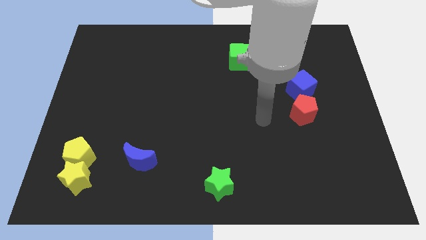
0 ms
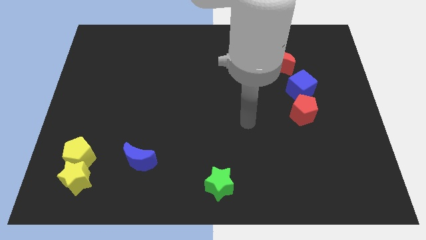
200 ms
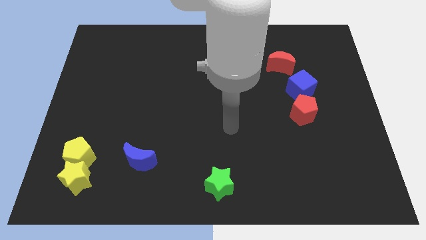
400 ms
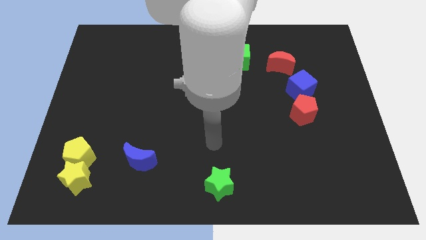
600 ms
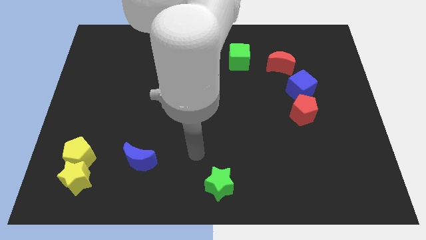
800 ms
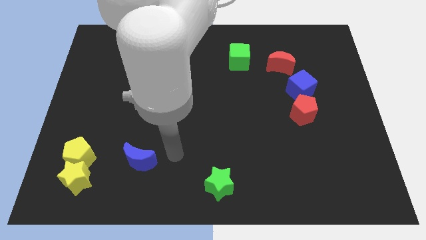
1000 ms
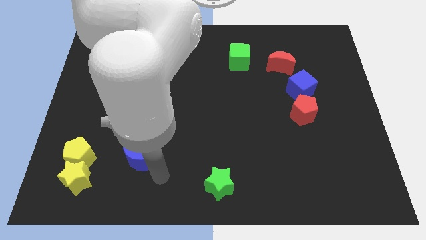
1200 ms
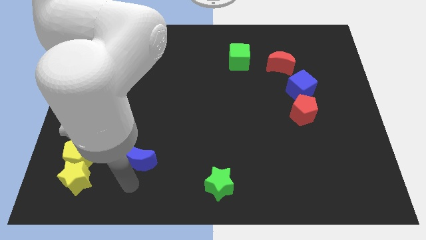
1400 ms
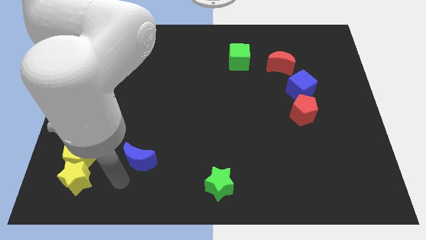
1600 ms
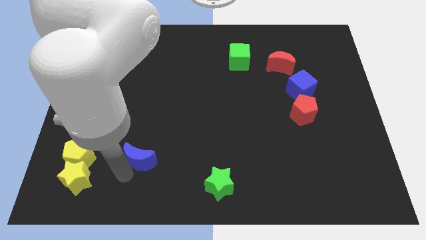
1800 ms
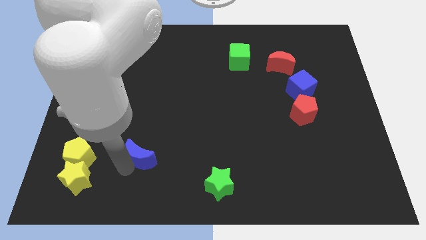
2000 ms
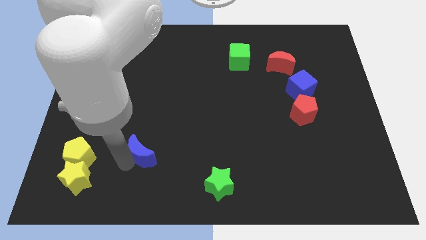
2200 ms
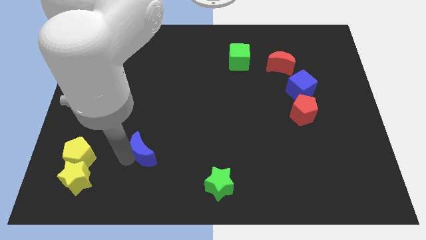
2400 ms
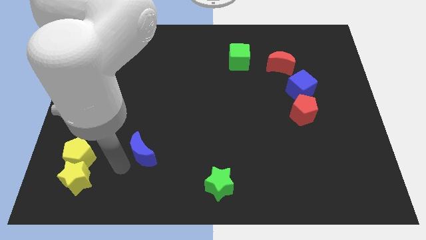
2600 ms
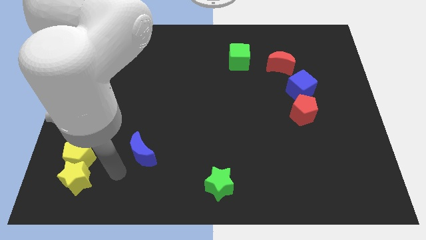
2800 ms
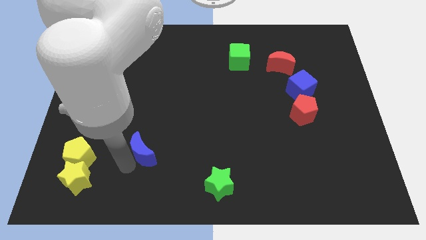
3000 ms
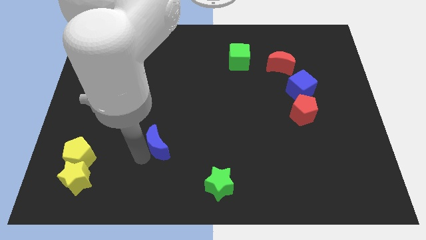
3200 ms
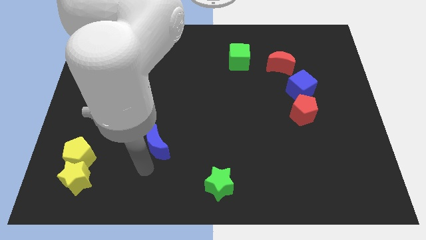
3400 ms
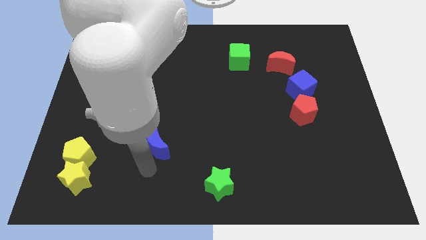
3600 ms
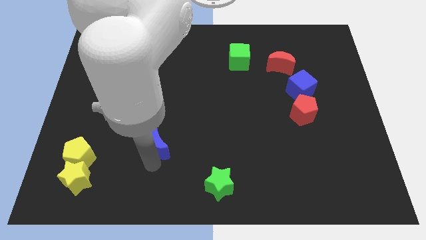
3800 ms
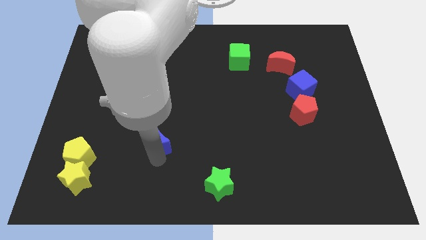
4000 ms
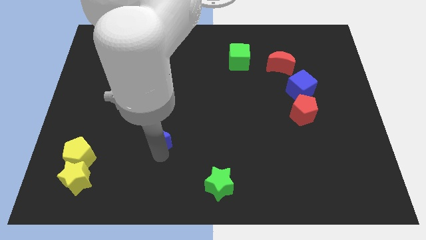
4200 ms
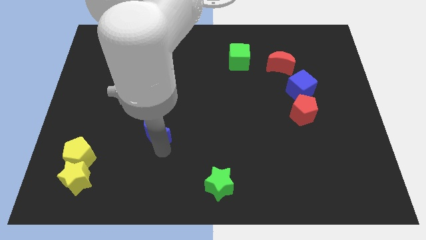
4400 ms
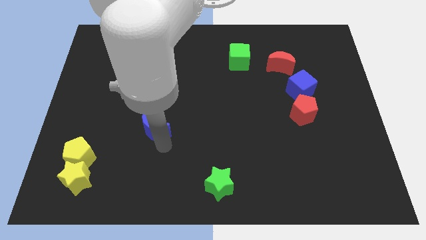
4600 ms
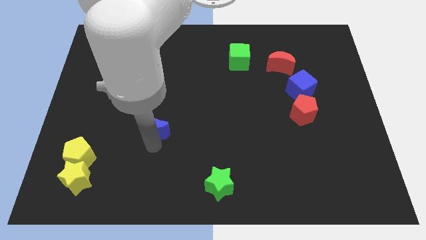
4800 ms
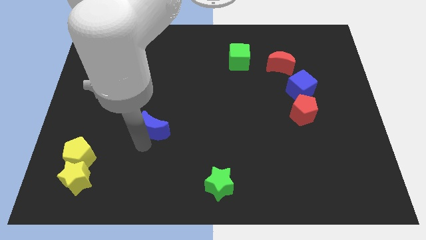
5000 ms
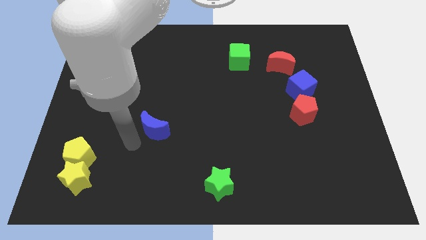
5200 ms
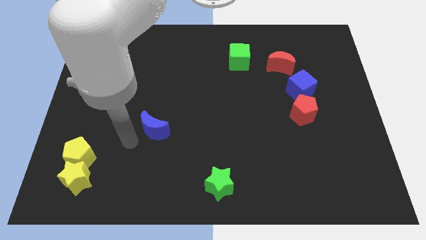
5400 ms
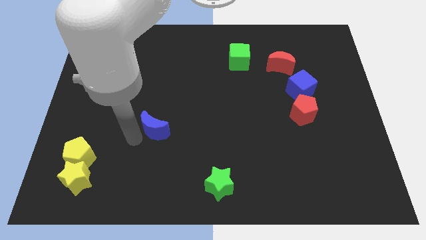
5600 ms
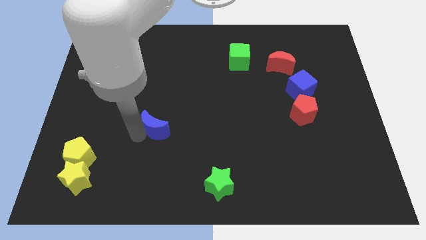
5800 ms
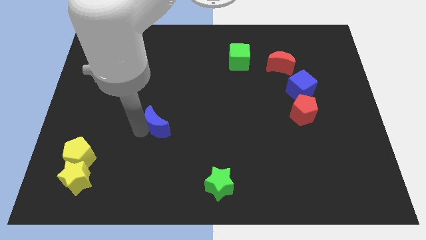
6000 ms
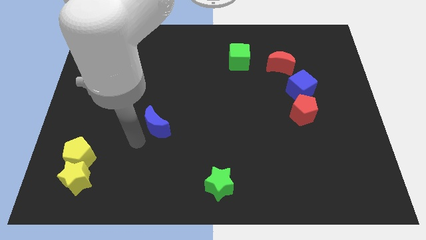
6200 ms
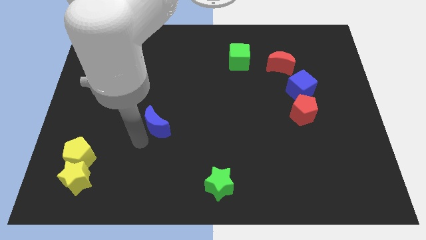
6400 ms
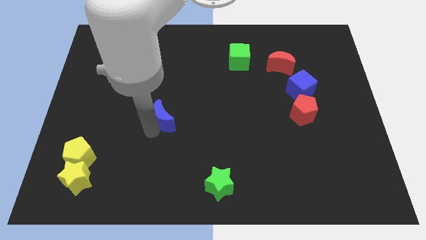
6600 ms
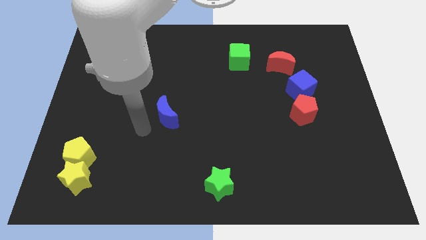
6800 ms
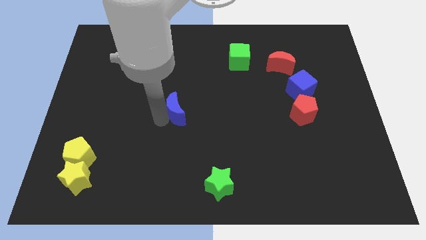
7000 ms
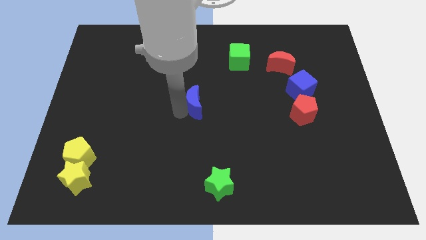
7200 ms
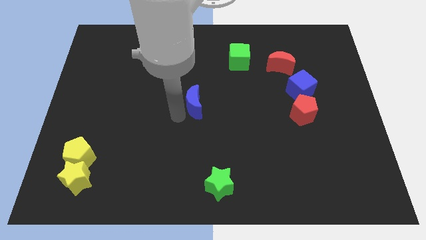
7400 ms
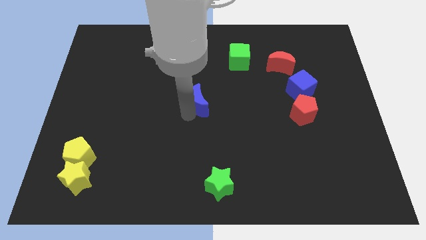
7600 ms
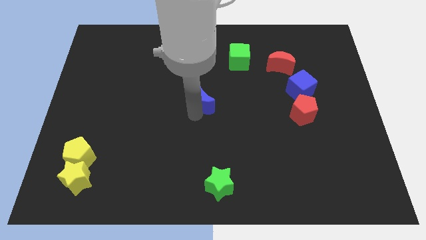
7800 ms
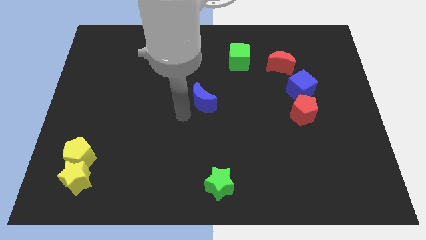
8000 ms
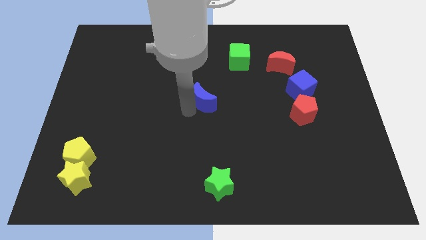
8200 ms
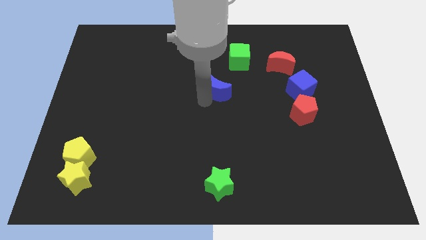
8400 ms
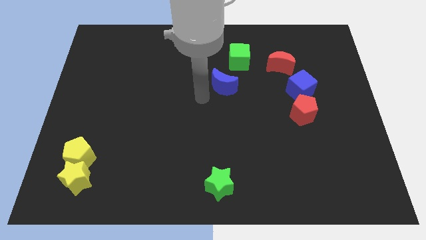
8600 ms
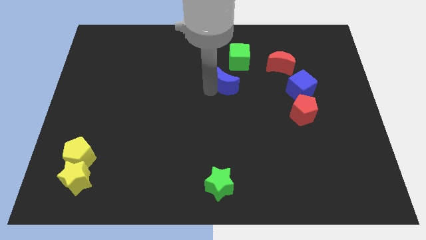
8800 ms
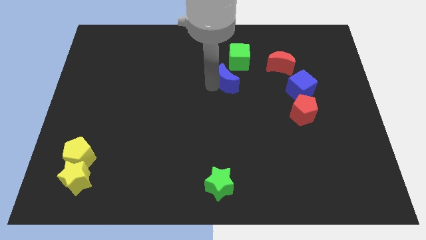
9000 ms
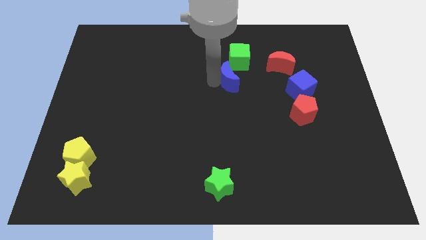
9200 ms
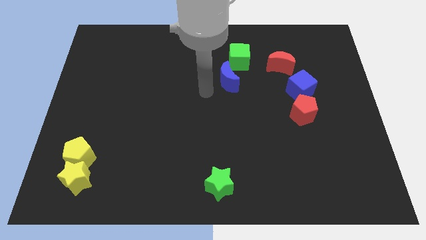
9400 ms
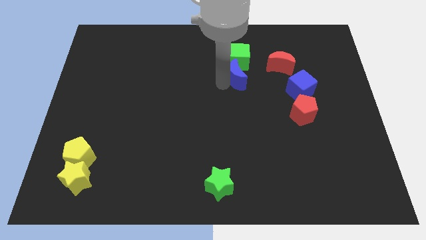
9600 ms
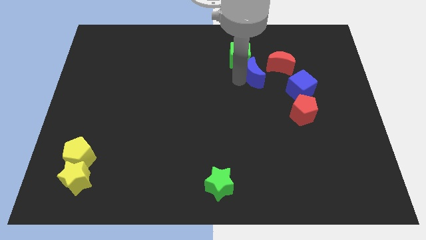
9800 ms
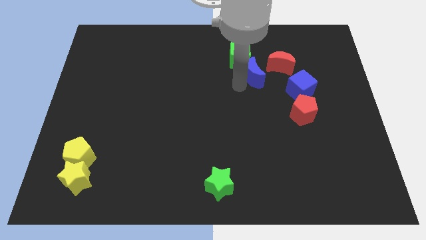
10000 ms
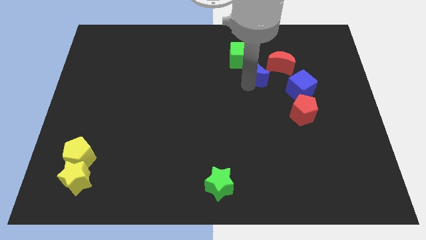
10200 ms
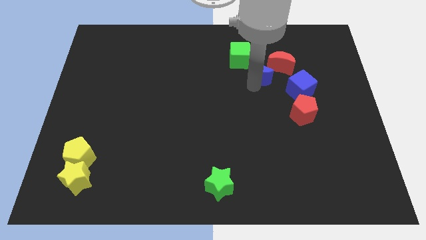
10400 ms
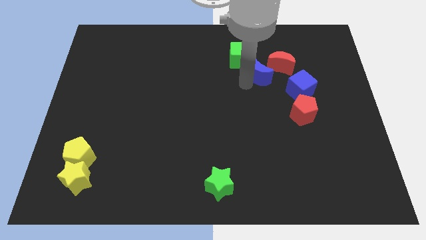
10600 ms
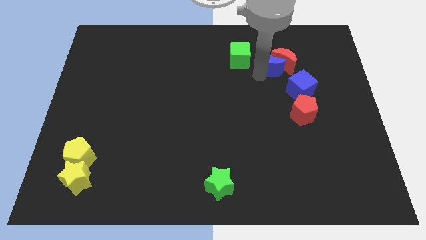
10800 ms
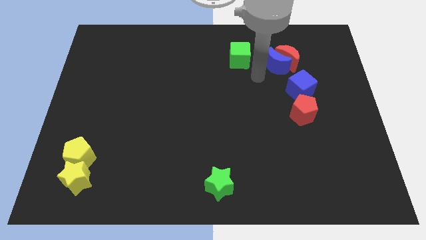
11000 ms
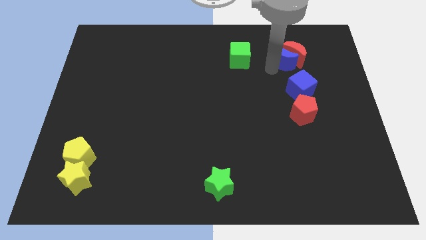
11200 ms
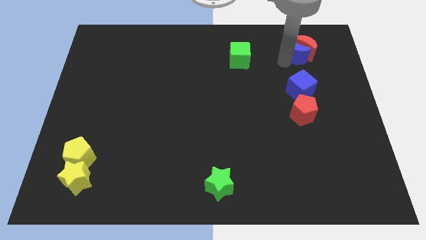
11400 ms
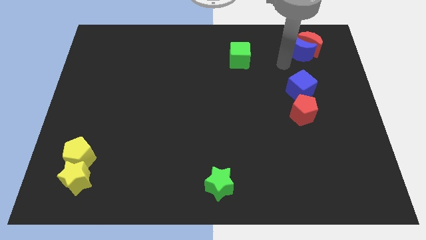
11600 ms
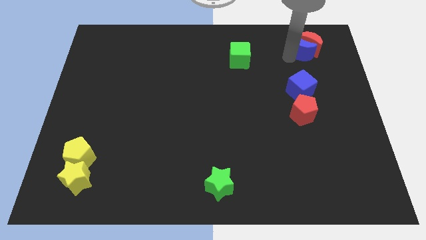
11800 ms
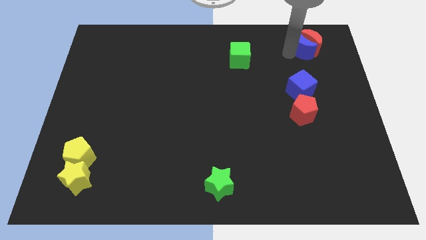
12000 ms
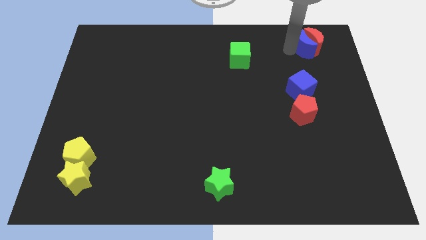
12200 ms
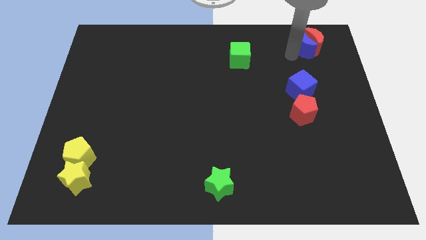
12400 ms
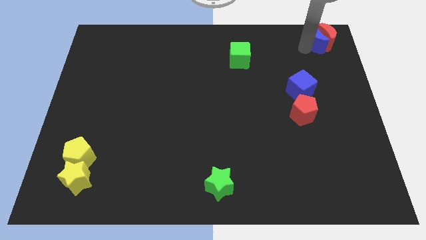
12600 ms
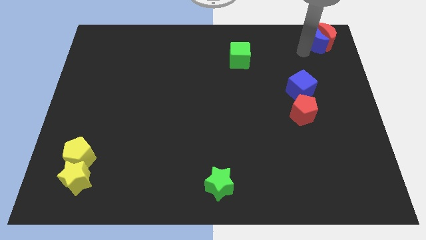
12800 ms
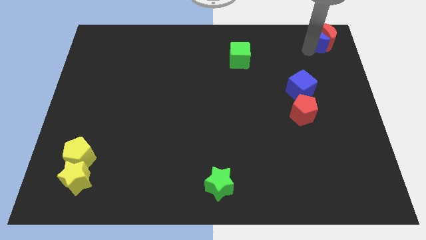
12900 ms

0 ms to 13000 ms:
put the blue moon to the top right of the board

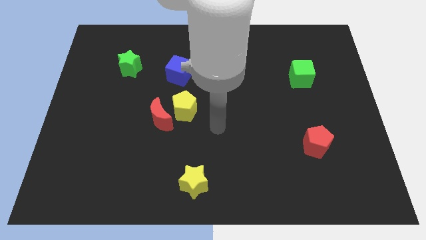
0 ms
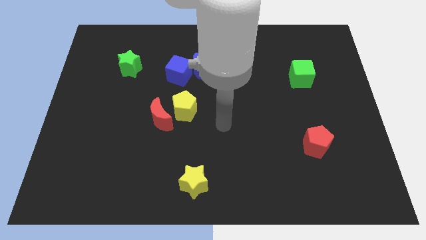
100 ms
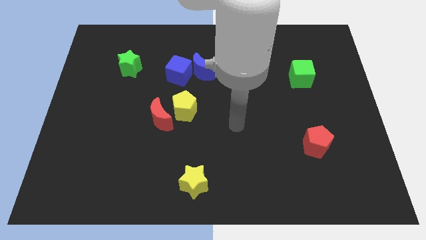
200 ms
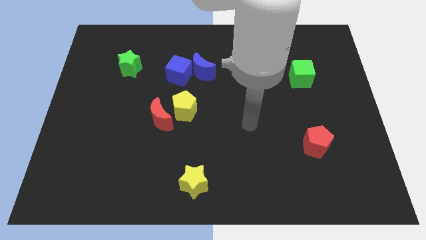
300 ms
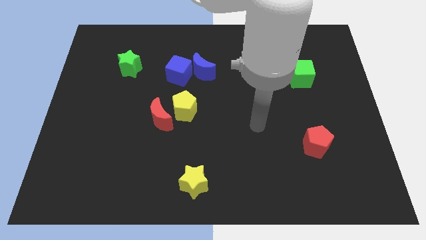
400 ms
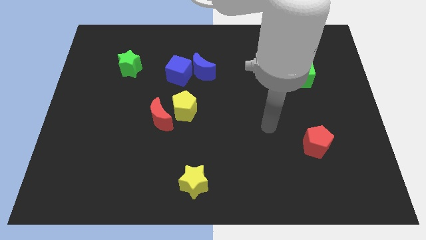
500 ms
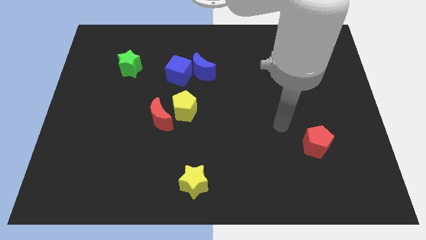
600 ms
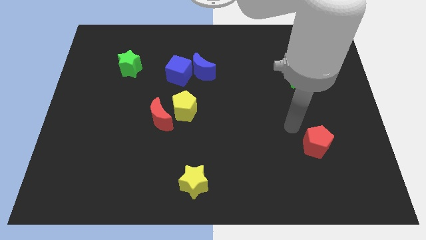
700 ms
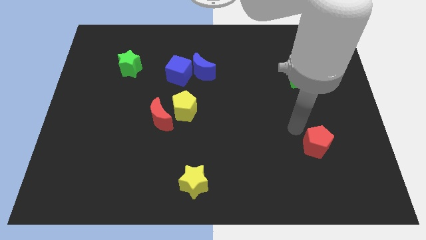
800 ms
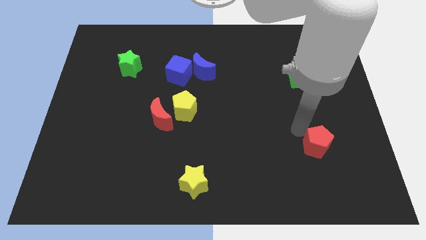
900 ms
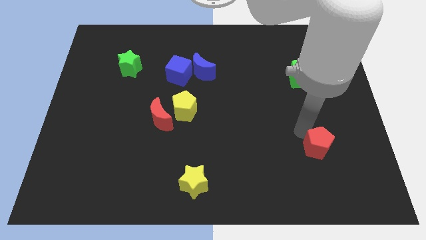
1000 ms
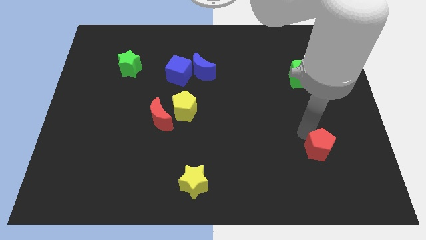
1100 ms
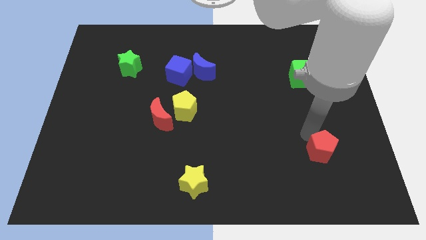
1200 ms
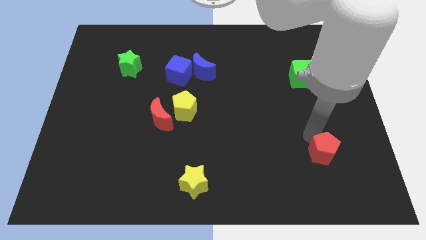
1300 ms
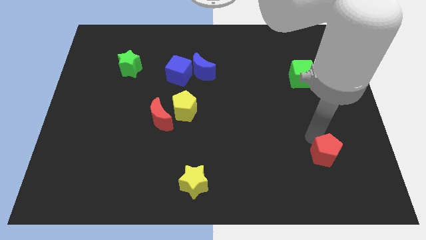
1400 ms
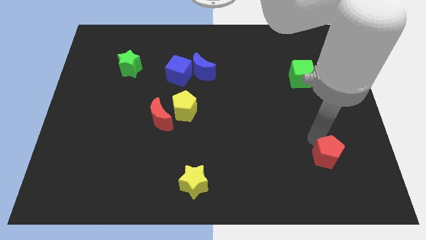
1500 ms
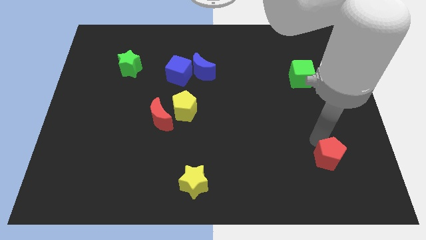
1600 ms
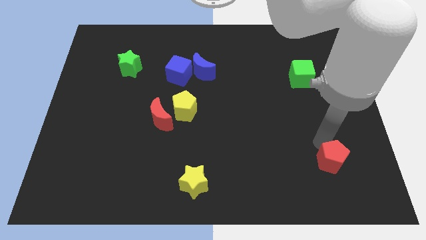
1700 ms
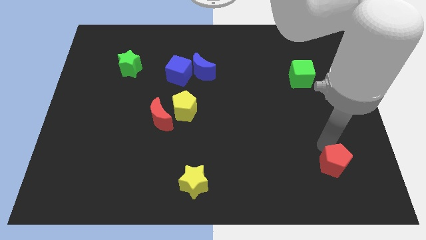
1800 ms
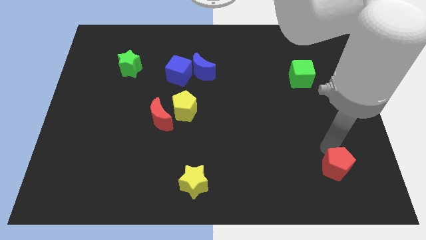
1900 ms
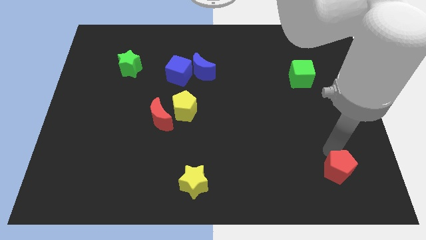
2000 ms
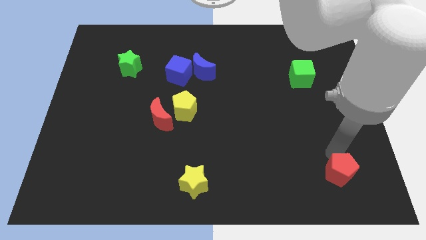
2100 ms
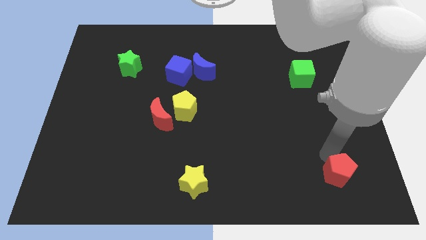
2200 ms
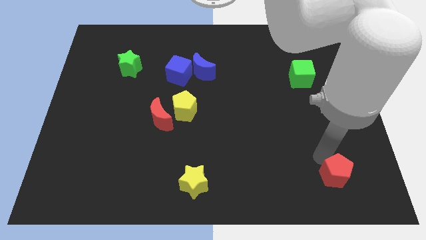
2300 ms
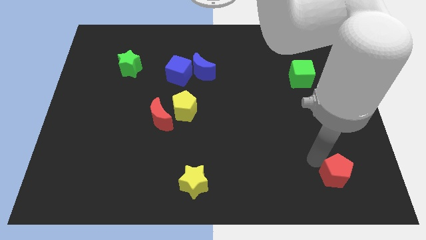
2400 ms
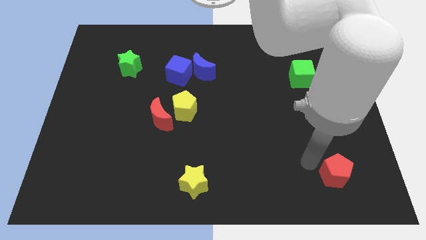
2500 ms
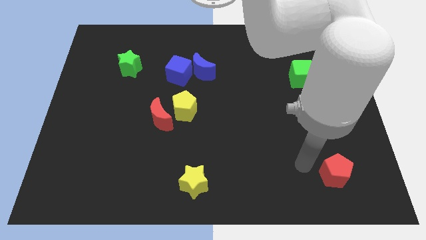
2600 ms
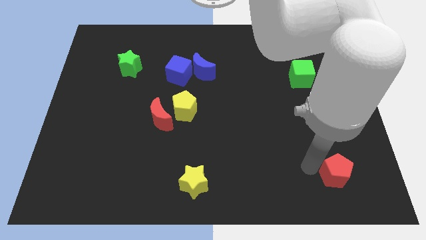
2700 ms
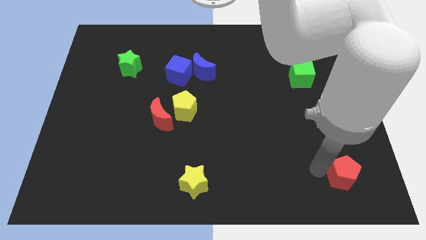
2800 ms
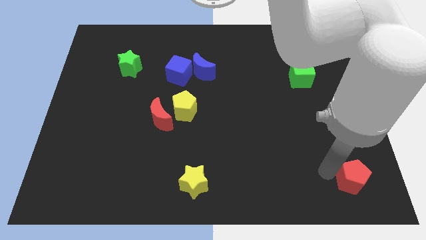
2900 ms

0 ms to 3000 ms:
slide the red pentagon to the lower right corner
